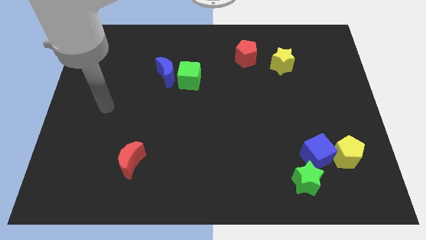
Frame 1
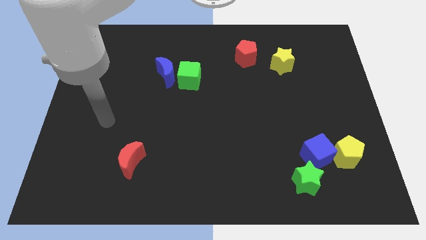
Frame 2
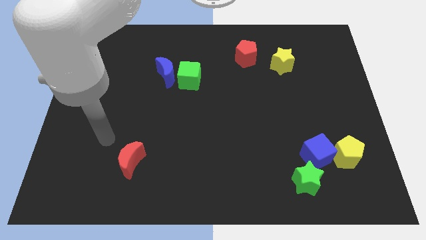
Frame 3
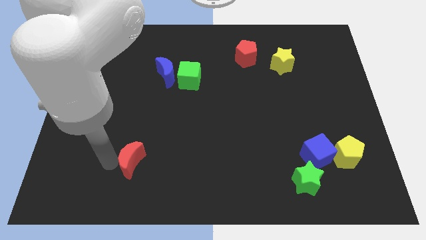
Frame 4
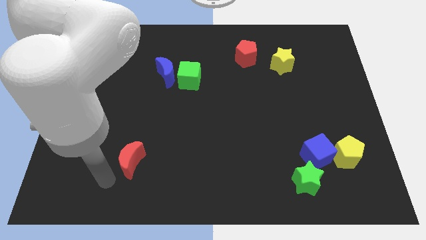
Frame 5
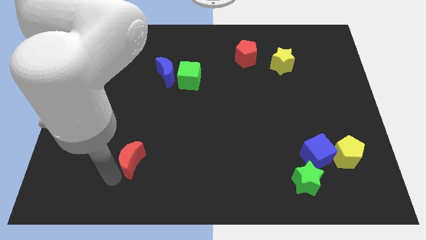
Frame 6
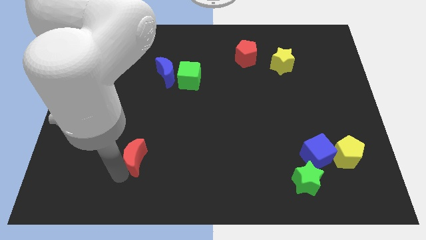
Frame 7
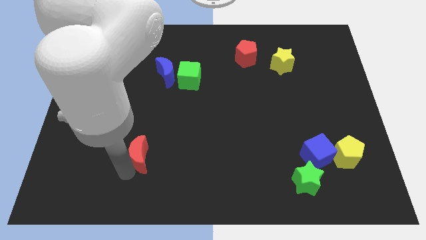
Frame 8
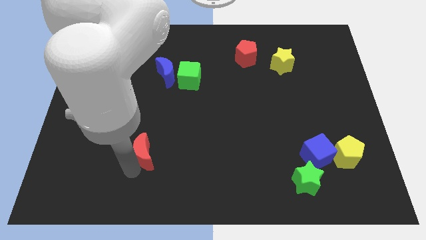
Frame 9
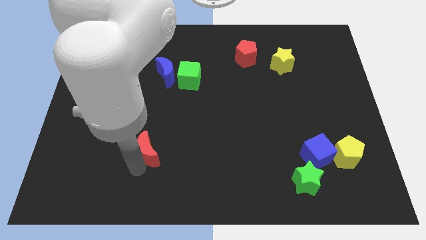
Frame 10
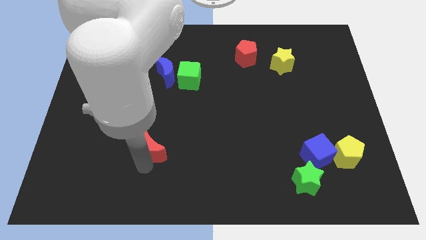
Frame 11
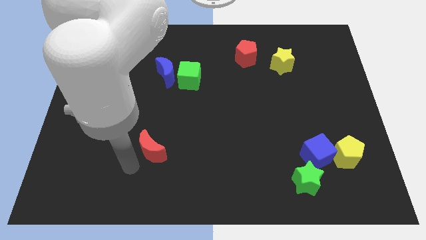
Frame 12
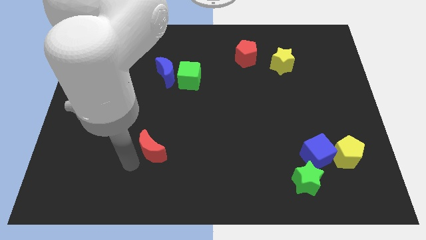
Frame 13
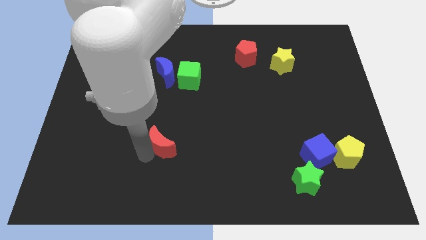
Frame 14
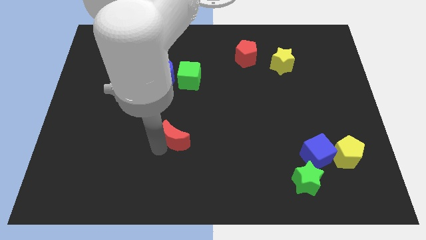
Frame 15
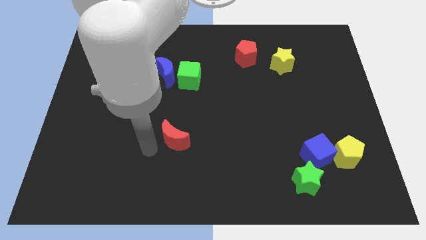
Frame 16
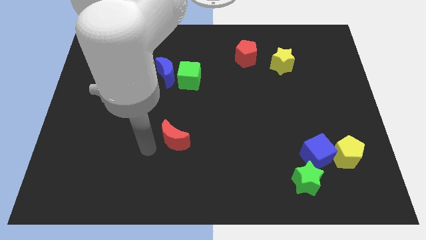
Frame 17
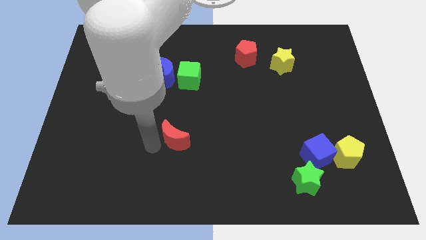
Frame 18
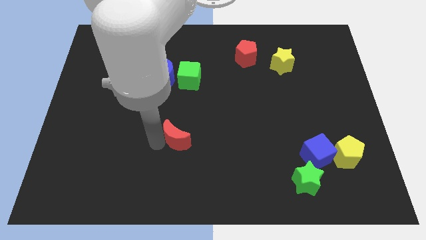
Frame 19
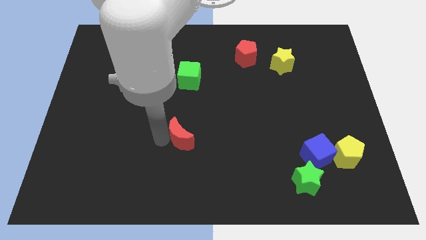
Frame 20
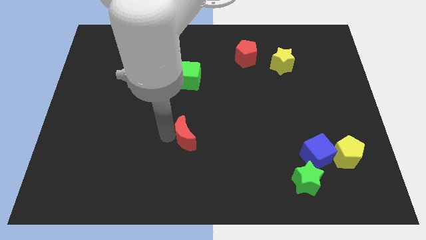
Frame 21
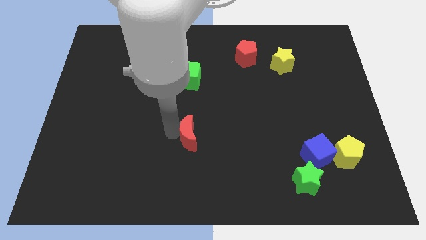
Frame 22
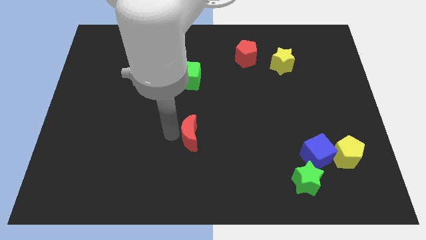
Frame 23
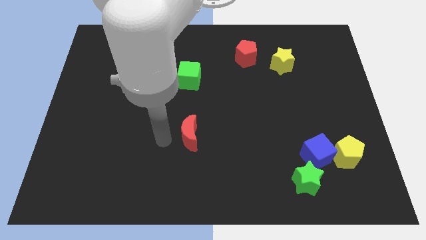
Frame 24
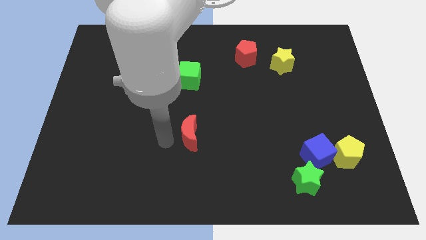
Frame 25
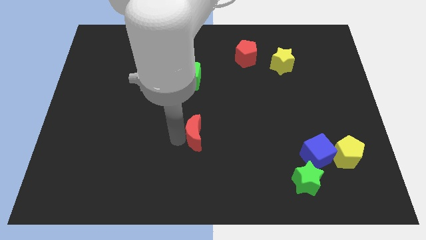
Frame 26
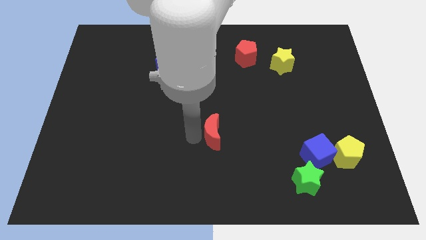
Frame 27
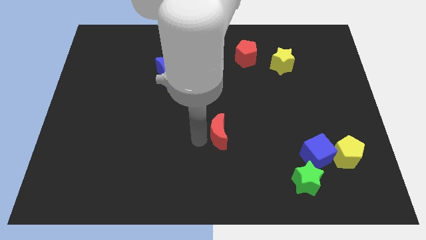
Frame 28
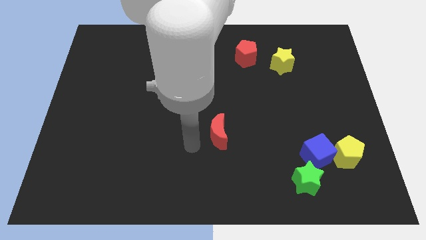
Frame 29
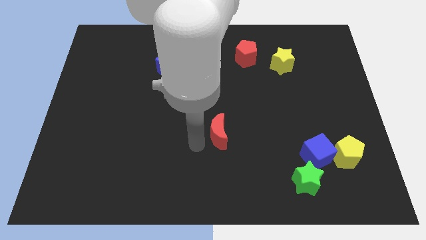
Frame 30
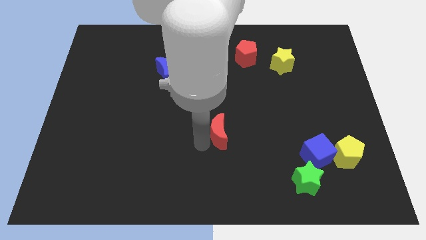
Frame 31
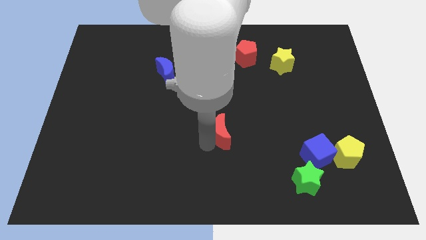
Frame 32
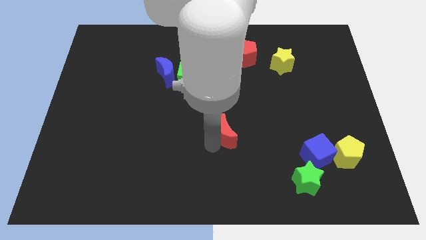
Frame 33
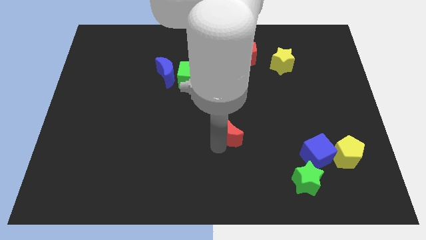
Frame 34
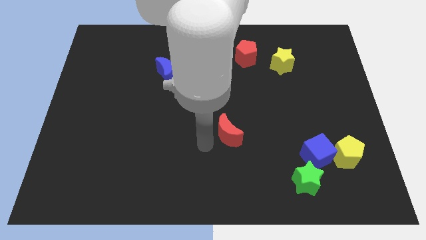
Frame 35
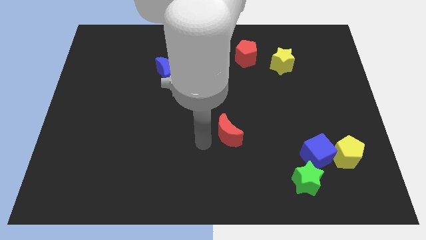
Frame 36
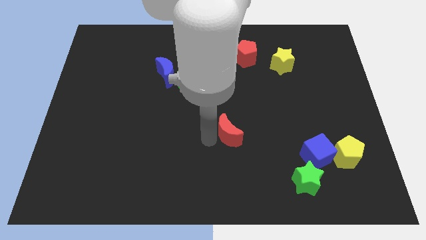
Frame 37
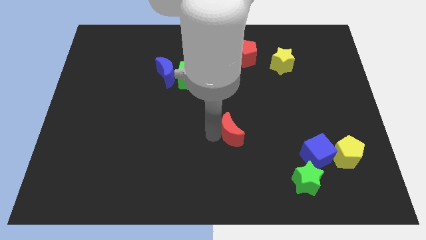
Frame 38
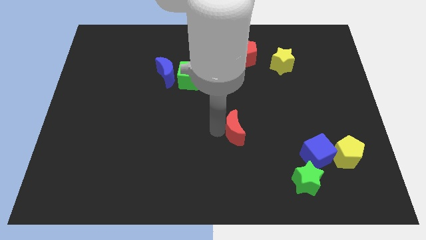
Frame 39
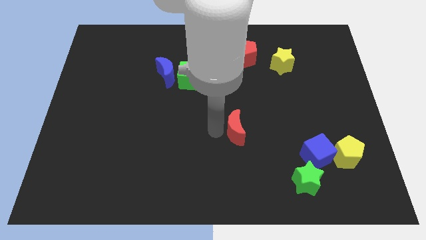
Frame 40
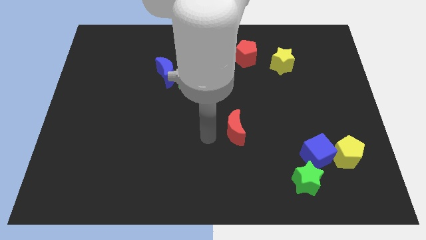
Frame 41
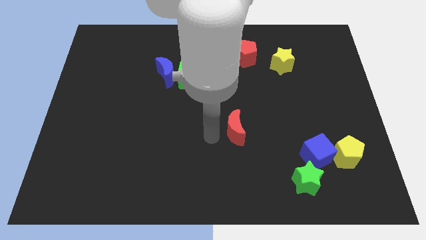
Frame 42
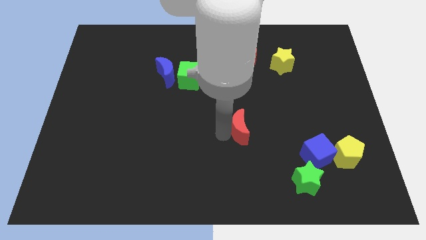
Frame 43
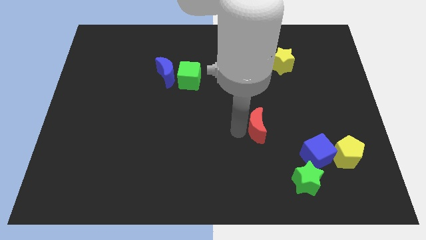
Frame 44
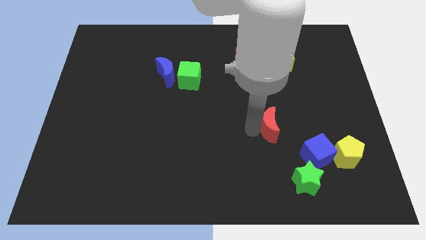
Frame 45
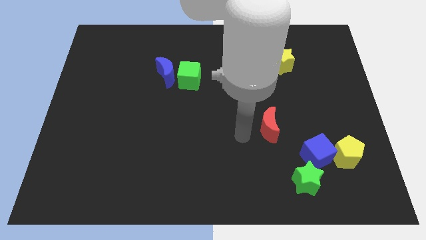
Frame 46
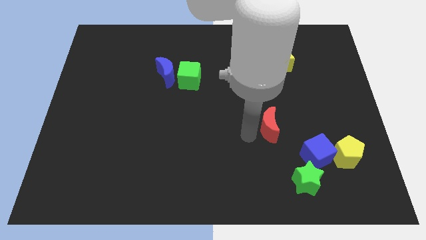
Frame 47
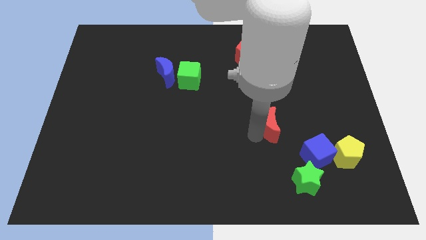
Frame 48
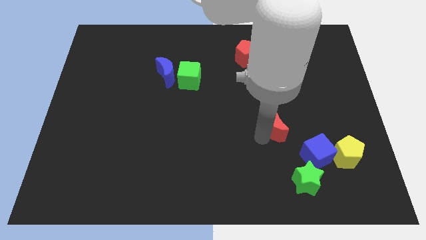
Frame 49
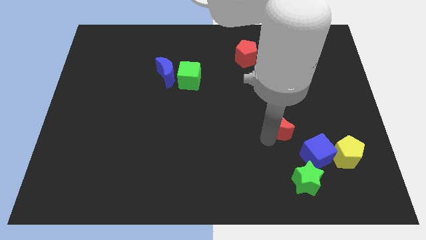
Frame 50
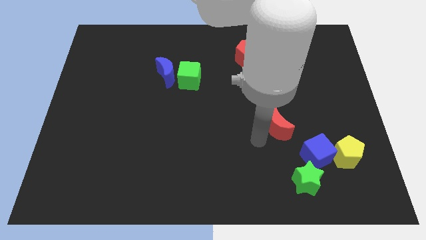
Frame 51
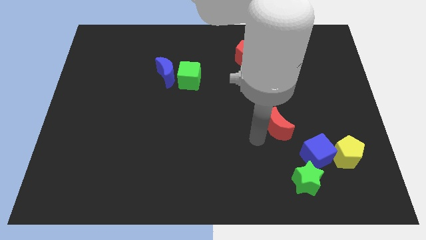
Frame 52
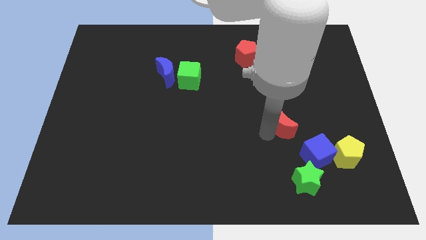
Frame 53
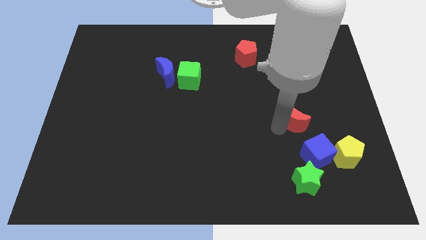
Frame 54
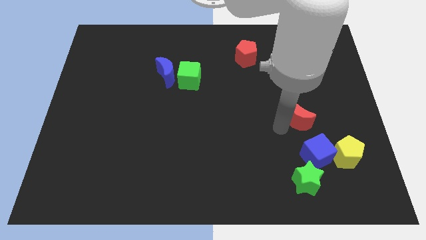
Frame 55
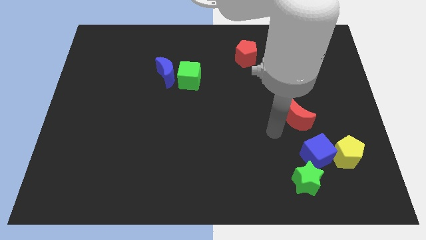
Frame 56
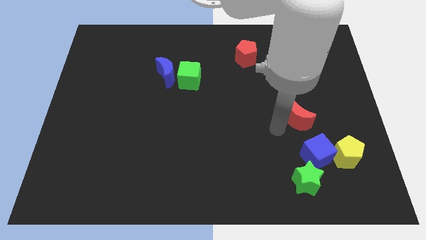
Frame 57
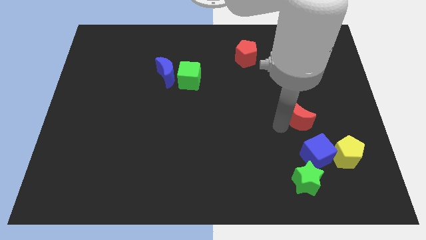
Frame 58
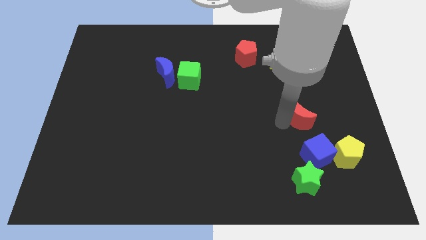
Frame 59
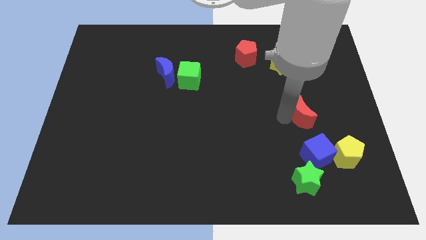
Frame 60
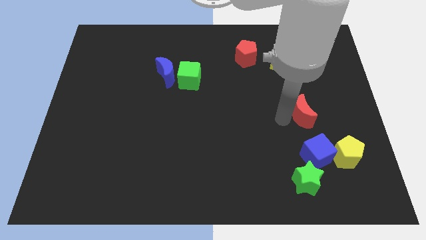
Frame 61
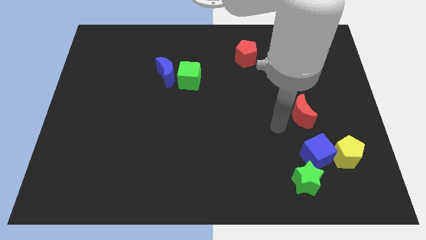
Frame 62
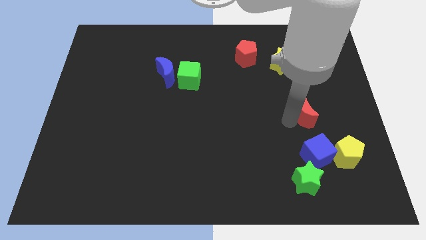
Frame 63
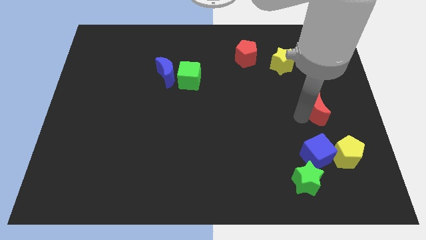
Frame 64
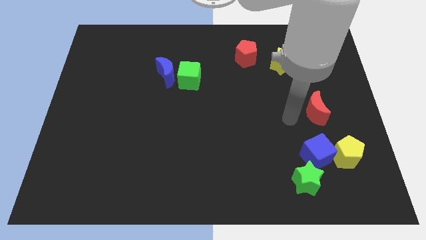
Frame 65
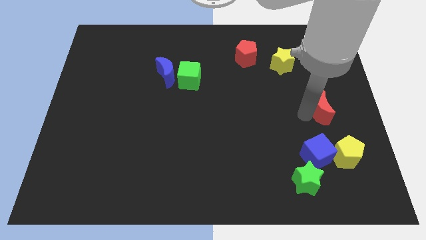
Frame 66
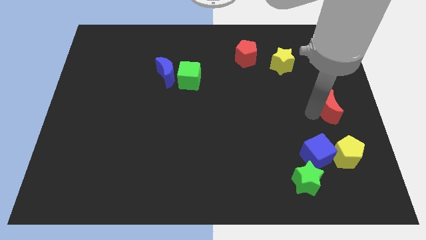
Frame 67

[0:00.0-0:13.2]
slide the red moon to the right side
